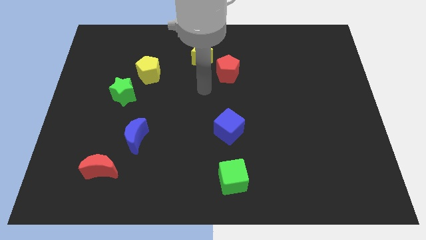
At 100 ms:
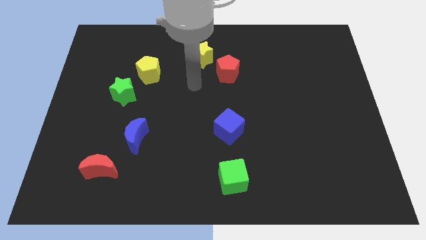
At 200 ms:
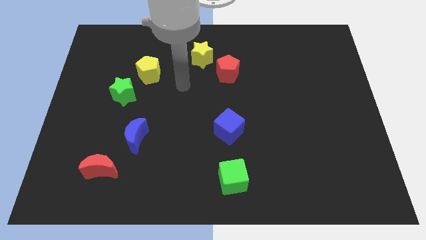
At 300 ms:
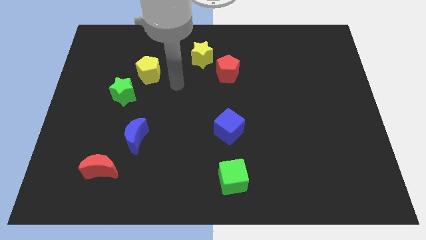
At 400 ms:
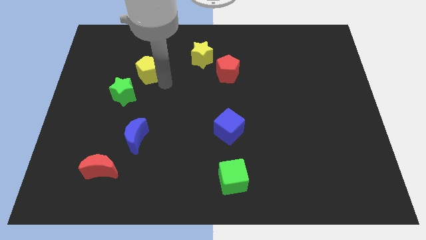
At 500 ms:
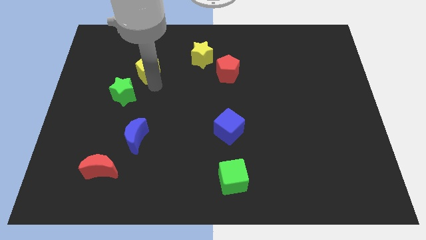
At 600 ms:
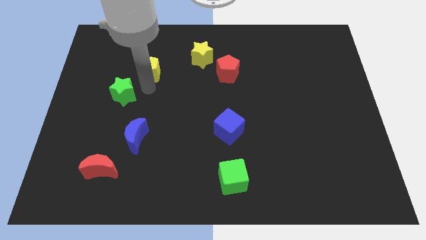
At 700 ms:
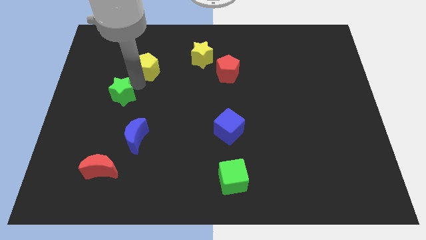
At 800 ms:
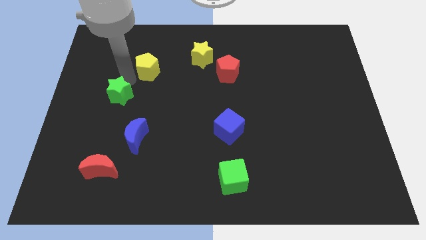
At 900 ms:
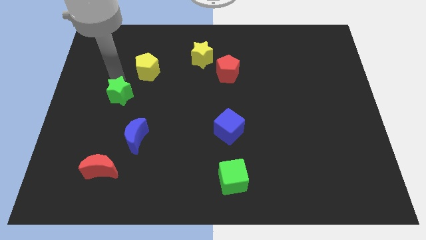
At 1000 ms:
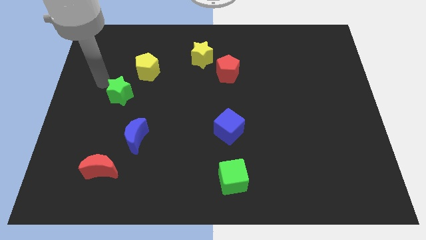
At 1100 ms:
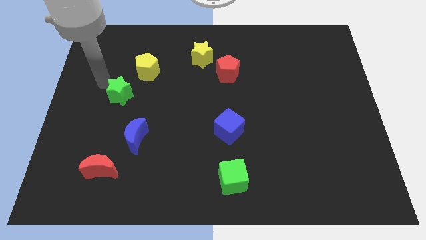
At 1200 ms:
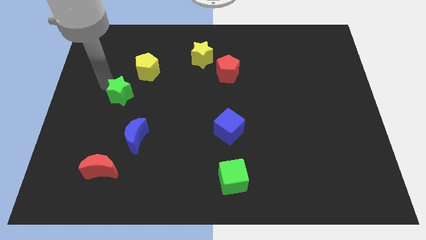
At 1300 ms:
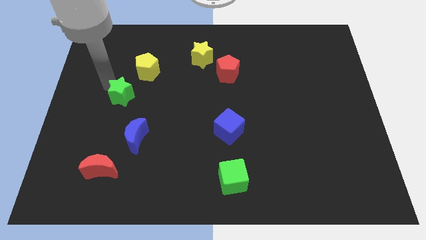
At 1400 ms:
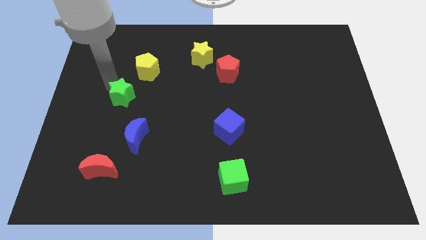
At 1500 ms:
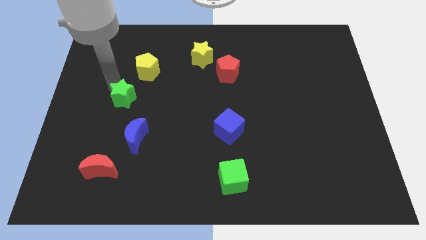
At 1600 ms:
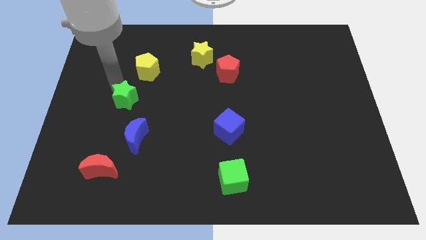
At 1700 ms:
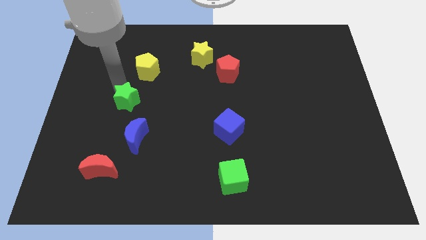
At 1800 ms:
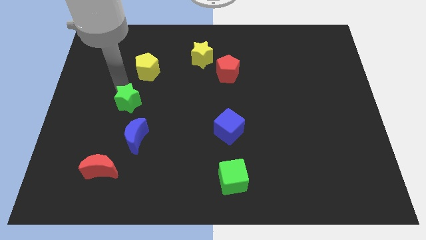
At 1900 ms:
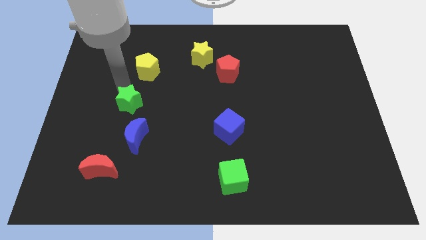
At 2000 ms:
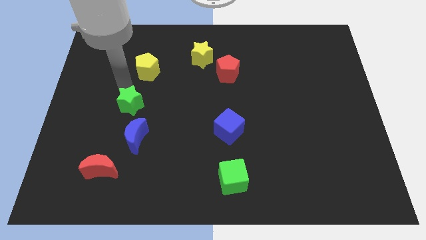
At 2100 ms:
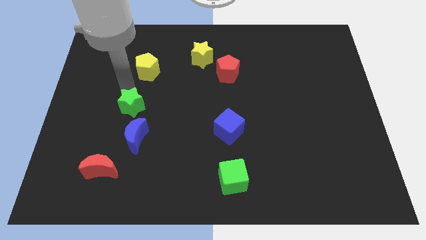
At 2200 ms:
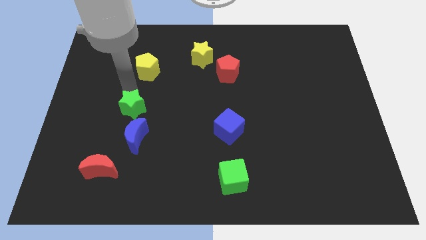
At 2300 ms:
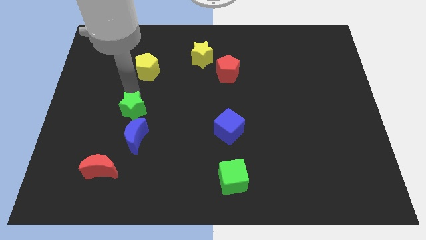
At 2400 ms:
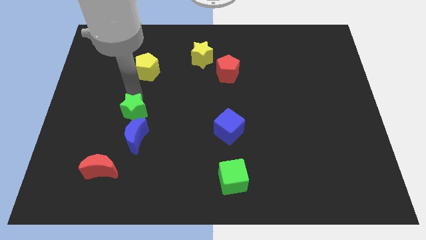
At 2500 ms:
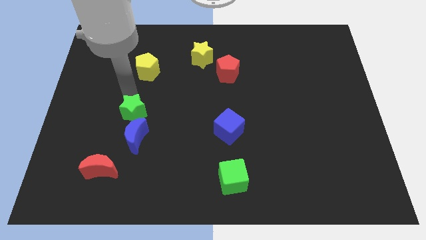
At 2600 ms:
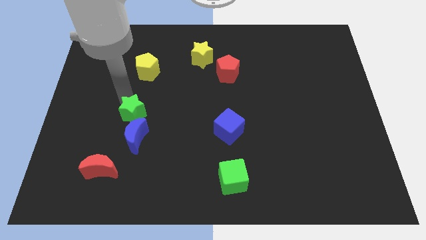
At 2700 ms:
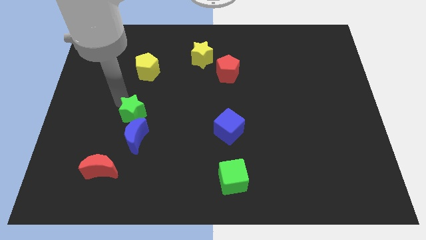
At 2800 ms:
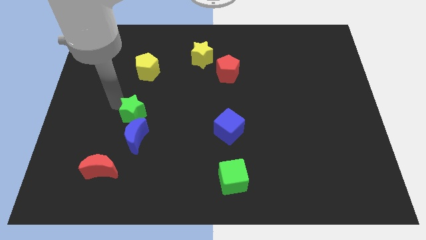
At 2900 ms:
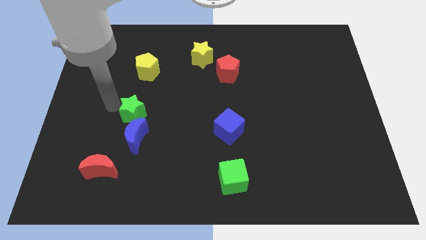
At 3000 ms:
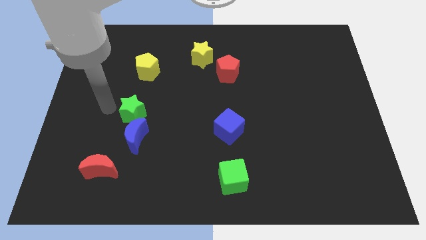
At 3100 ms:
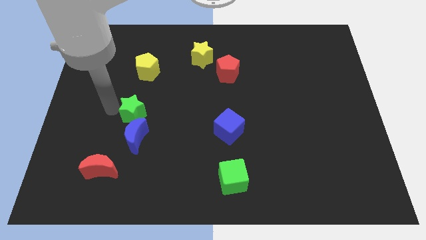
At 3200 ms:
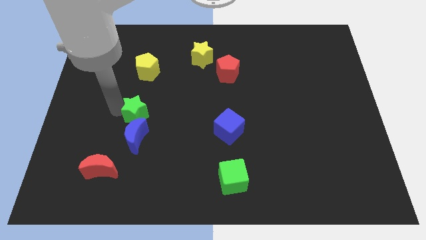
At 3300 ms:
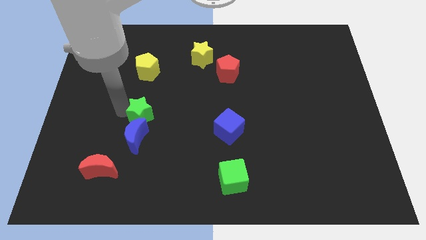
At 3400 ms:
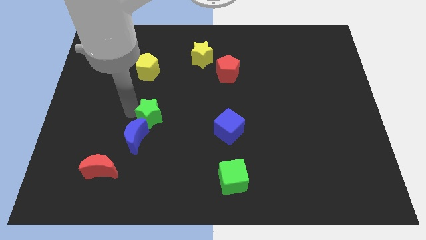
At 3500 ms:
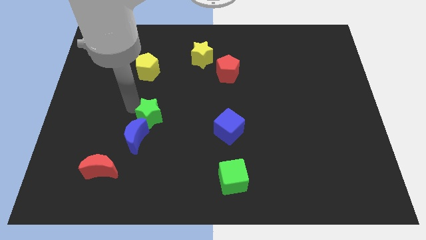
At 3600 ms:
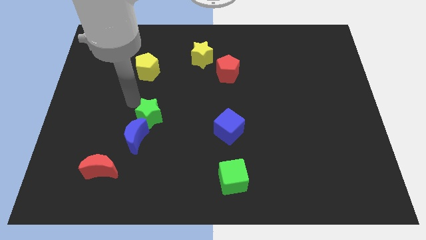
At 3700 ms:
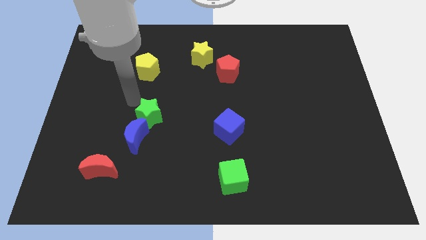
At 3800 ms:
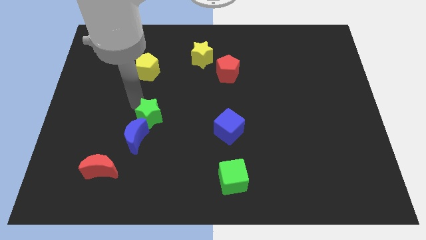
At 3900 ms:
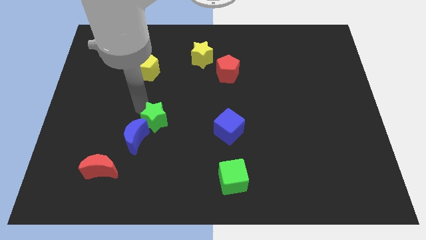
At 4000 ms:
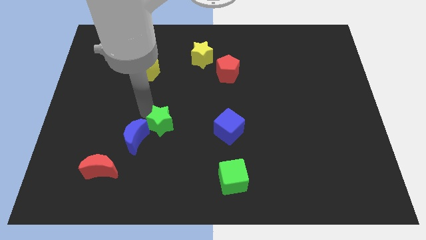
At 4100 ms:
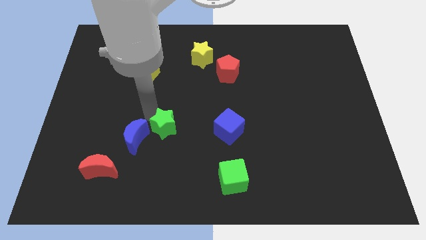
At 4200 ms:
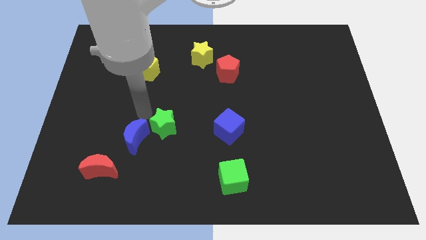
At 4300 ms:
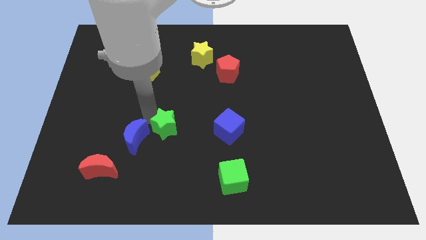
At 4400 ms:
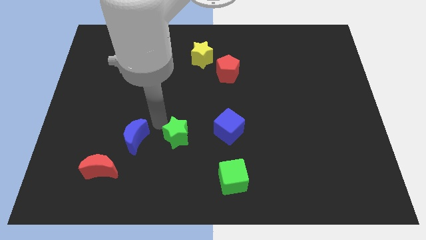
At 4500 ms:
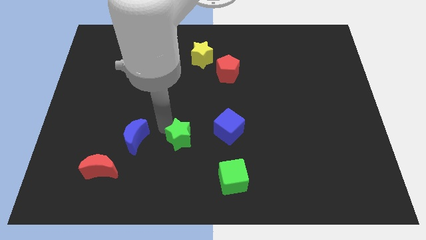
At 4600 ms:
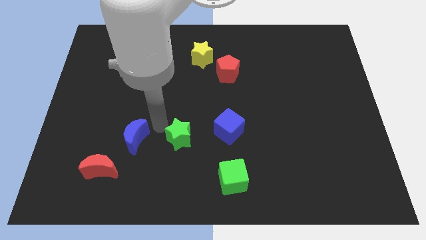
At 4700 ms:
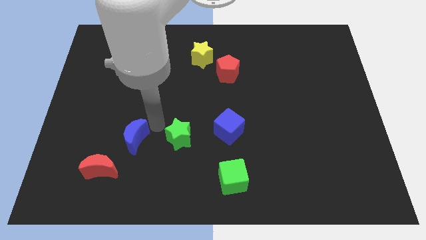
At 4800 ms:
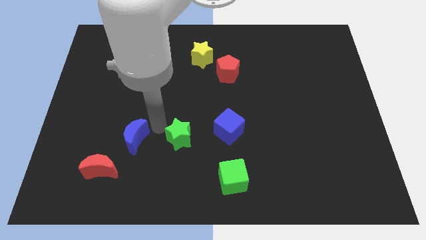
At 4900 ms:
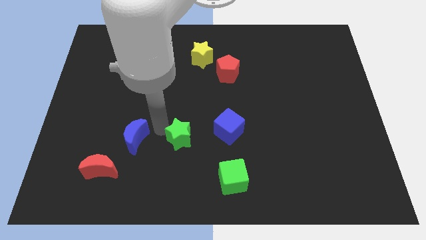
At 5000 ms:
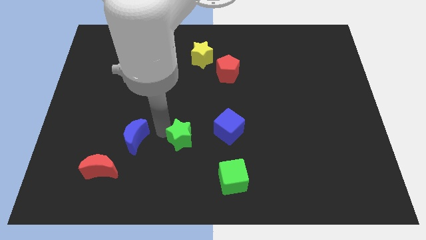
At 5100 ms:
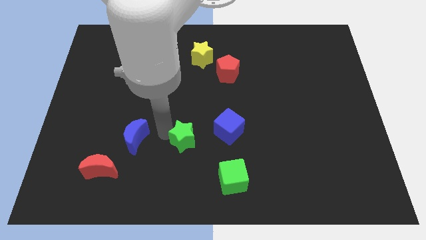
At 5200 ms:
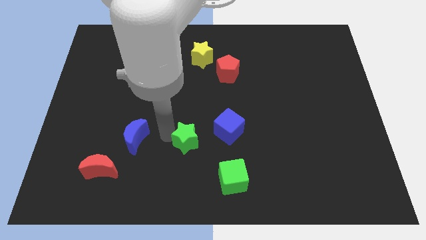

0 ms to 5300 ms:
push the green star to the bottom left side of the blue cube

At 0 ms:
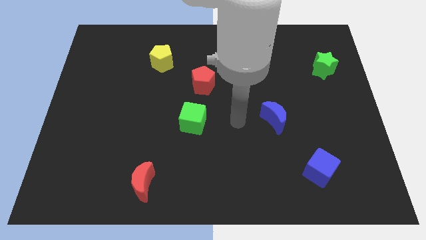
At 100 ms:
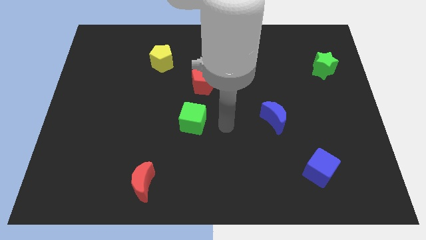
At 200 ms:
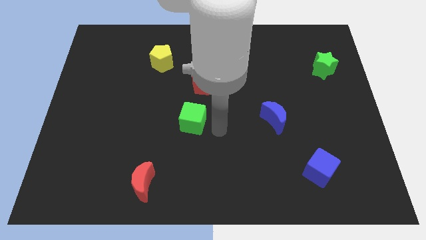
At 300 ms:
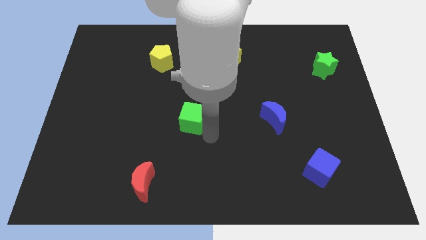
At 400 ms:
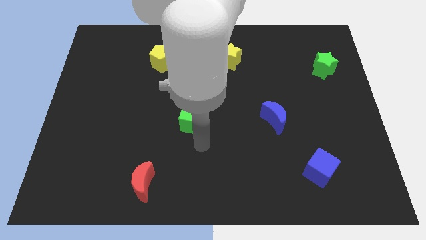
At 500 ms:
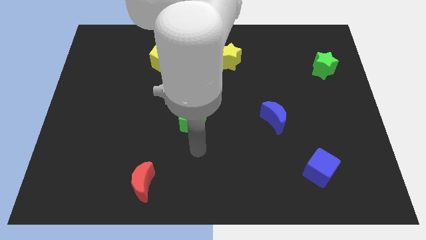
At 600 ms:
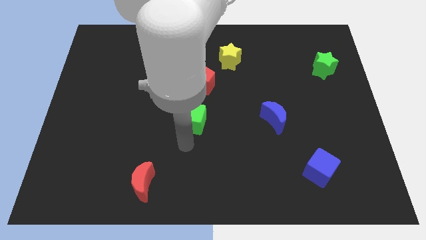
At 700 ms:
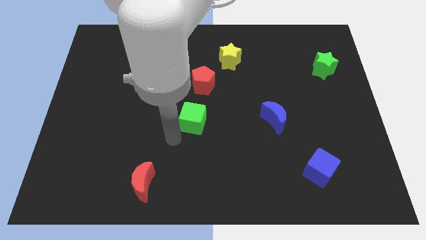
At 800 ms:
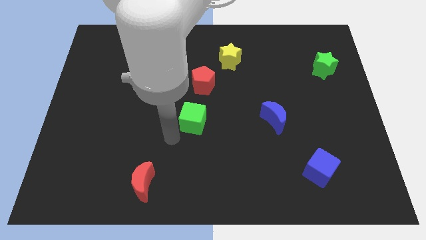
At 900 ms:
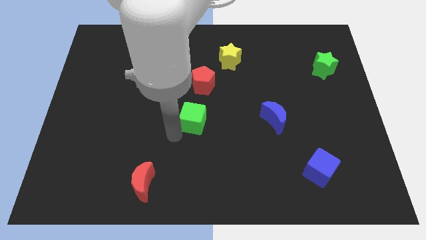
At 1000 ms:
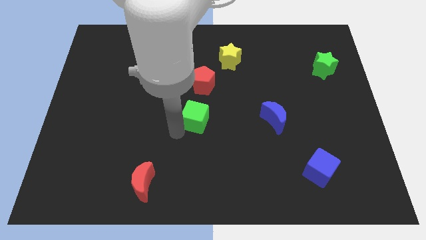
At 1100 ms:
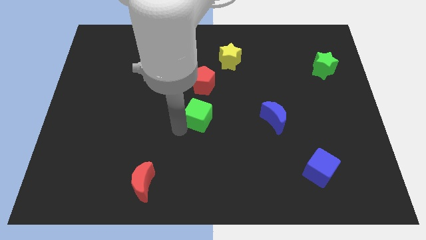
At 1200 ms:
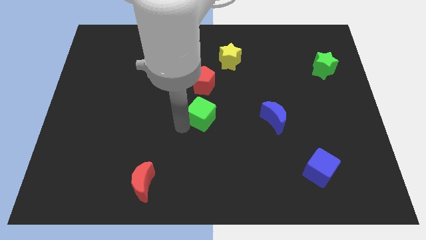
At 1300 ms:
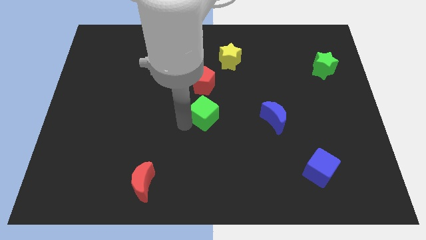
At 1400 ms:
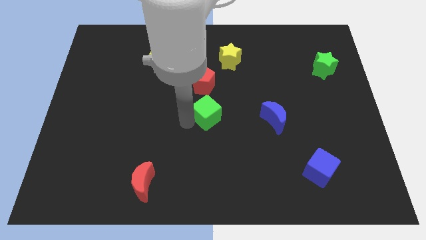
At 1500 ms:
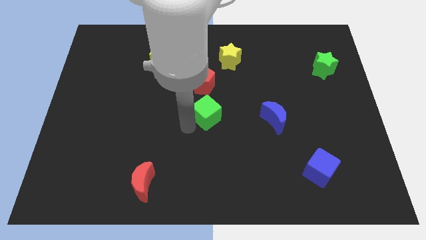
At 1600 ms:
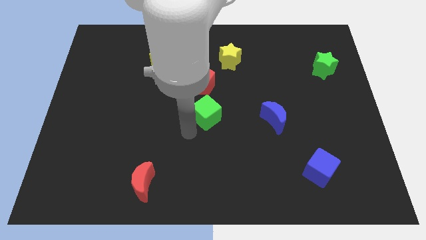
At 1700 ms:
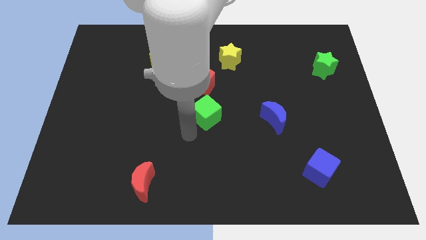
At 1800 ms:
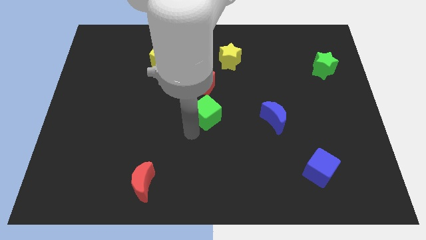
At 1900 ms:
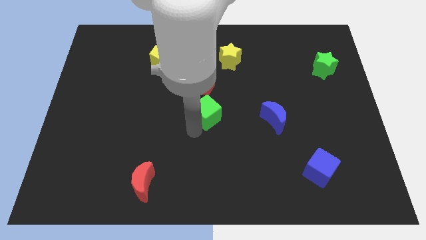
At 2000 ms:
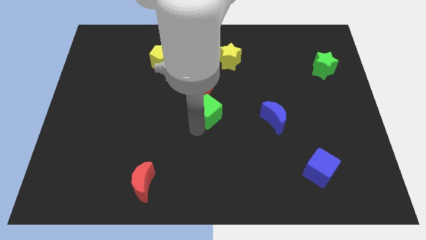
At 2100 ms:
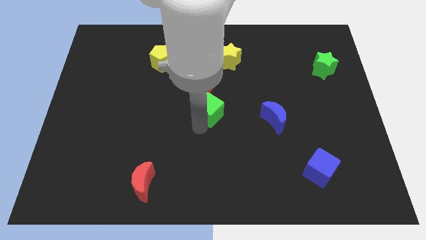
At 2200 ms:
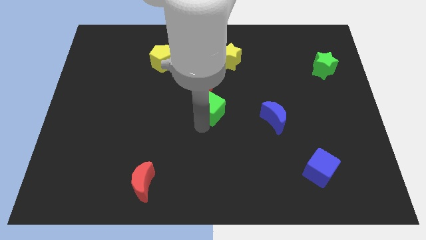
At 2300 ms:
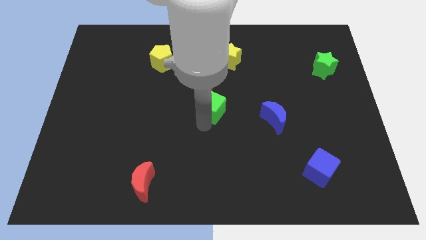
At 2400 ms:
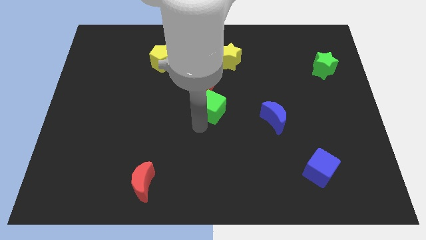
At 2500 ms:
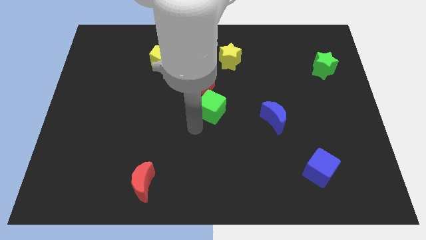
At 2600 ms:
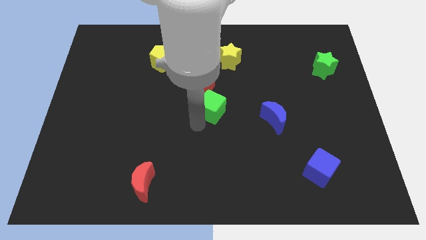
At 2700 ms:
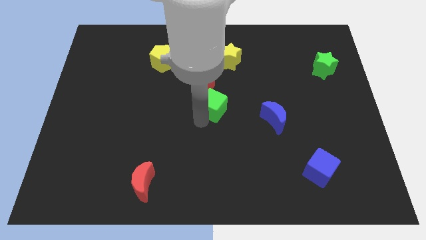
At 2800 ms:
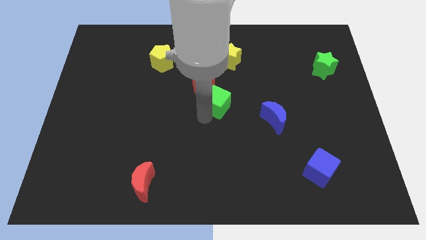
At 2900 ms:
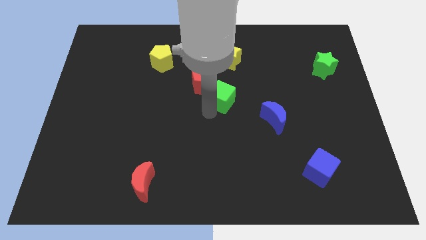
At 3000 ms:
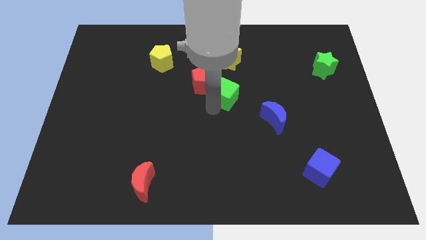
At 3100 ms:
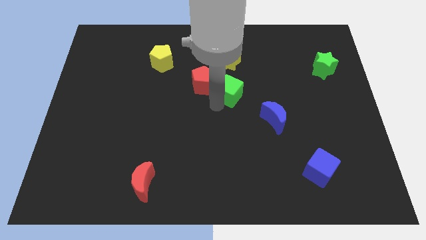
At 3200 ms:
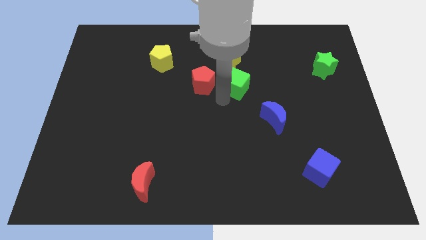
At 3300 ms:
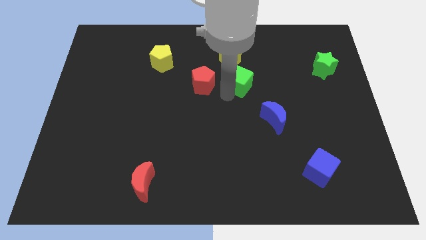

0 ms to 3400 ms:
put the green cube to the bottom right side of the yellow star
